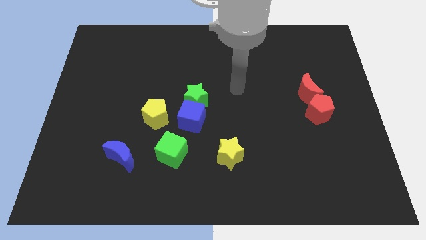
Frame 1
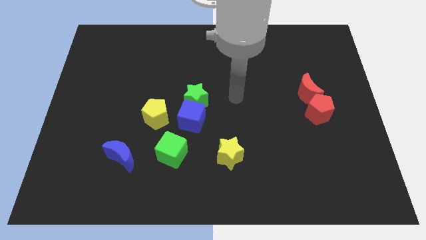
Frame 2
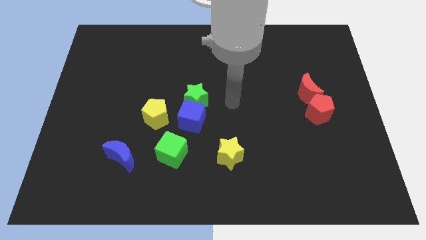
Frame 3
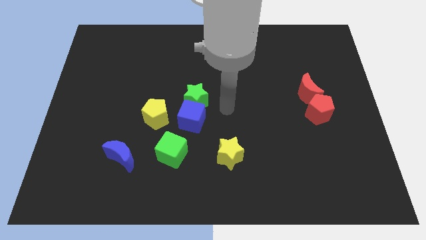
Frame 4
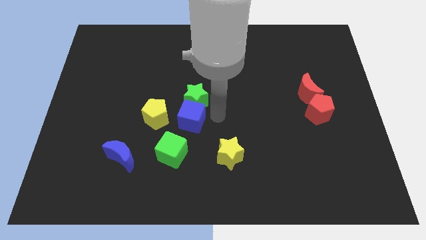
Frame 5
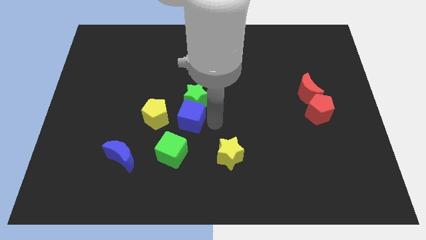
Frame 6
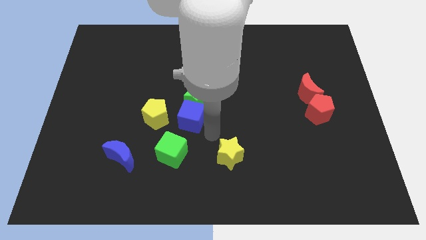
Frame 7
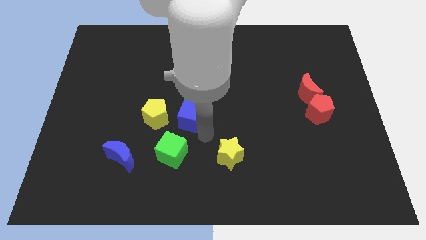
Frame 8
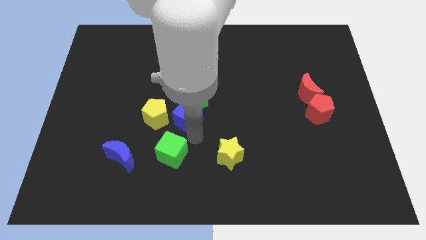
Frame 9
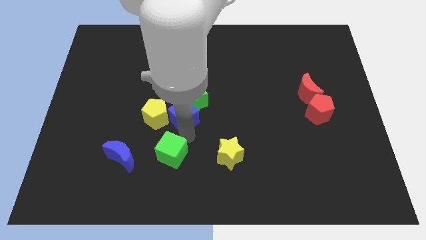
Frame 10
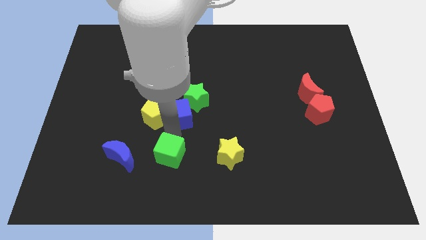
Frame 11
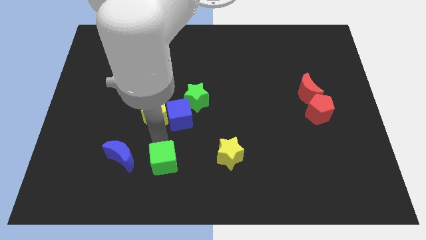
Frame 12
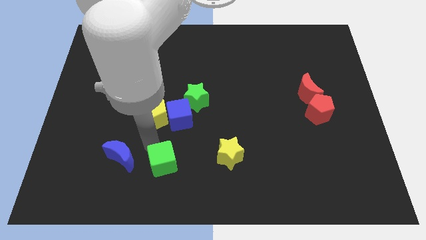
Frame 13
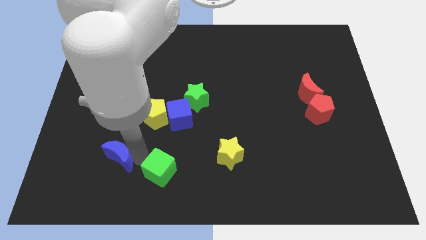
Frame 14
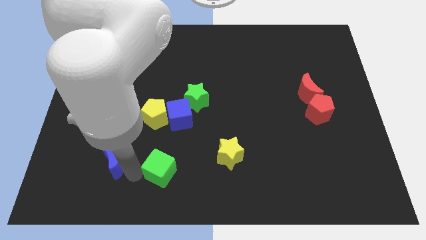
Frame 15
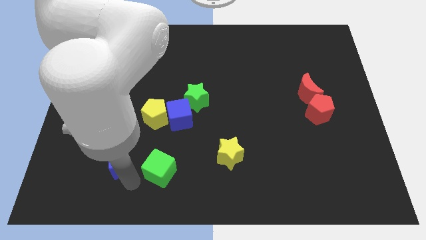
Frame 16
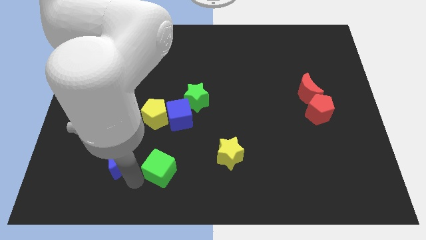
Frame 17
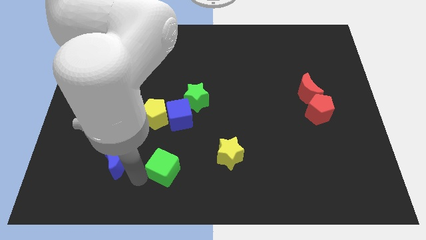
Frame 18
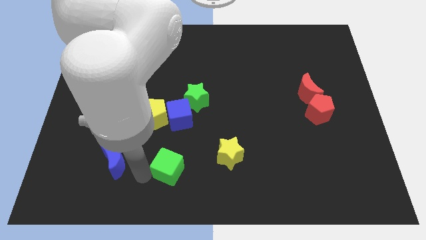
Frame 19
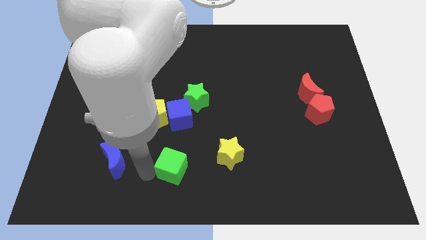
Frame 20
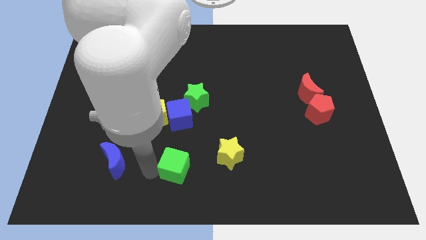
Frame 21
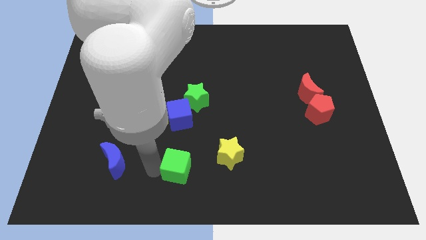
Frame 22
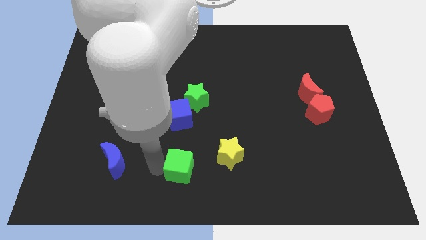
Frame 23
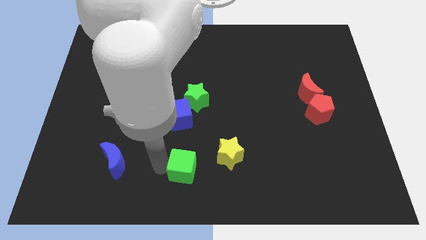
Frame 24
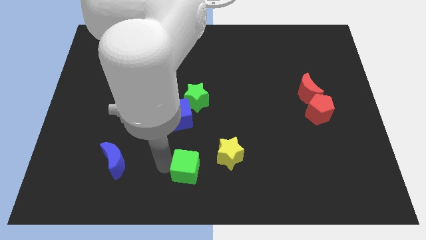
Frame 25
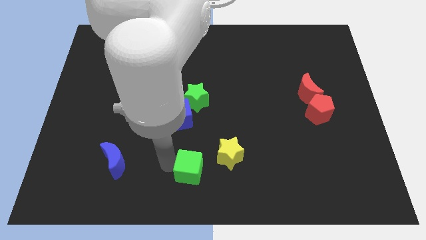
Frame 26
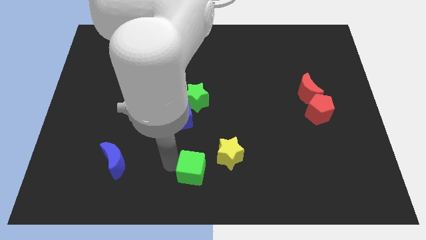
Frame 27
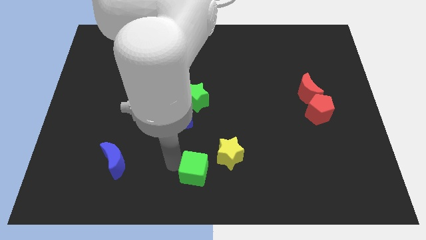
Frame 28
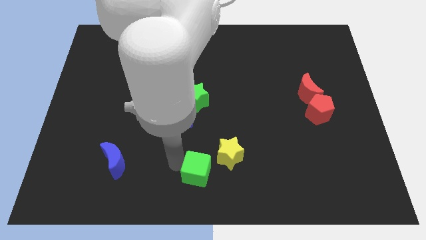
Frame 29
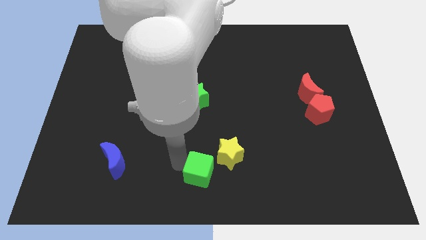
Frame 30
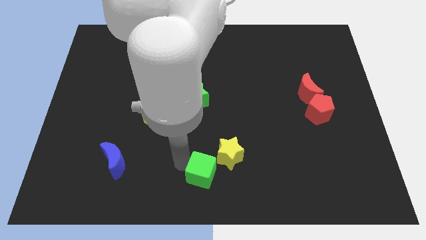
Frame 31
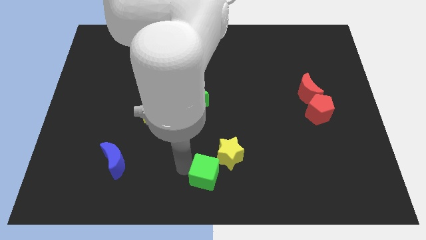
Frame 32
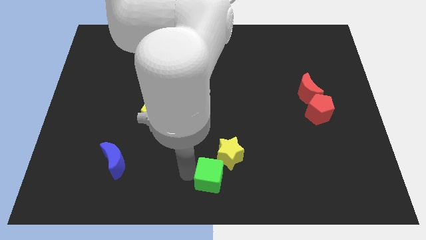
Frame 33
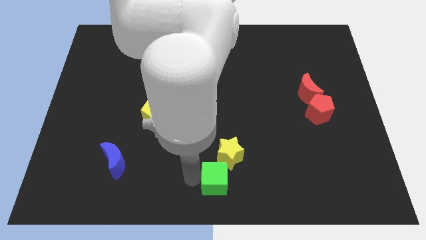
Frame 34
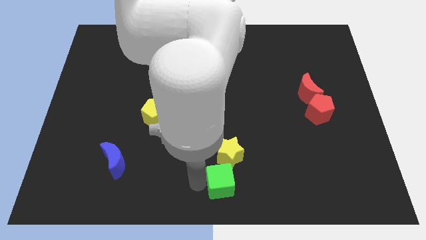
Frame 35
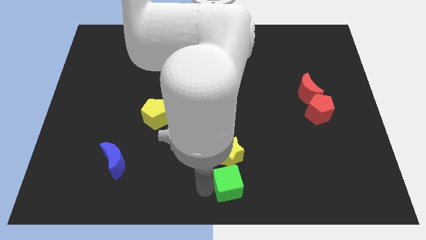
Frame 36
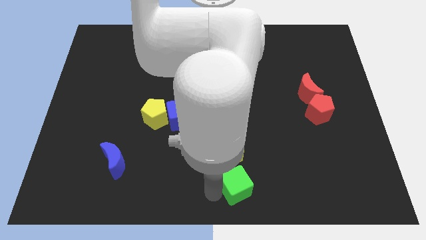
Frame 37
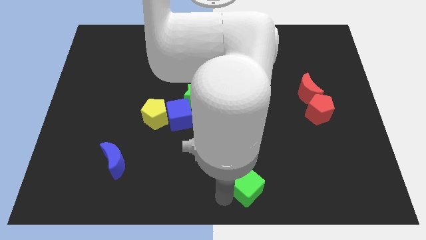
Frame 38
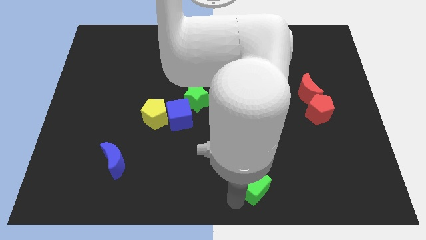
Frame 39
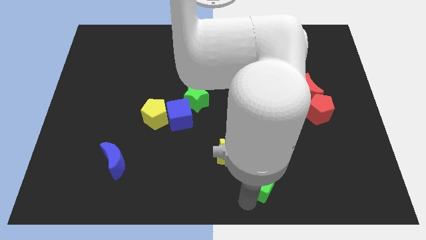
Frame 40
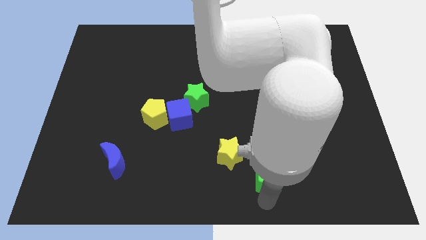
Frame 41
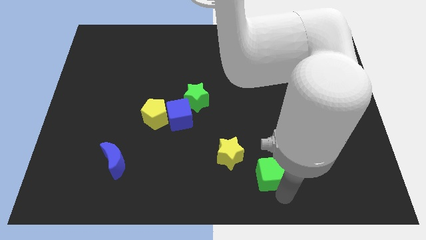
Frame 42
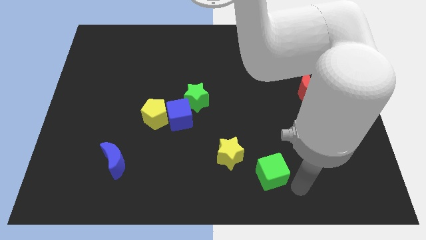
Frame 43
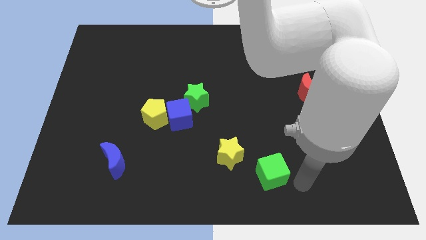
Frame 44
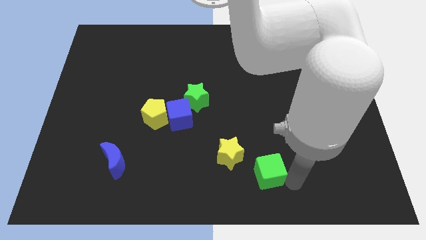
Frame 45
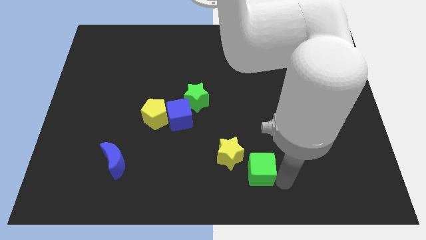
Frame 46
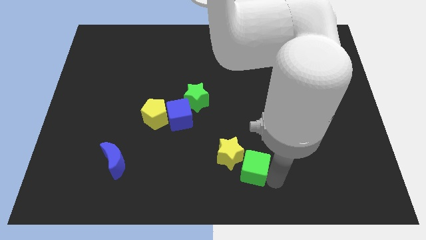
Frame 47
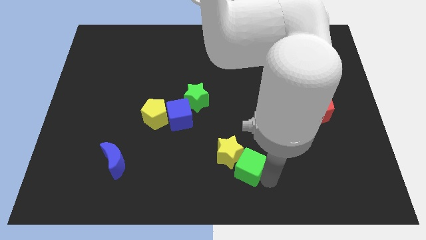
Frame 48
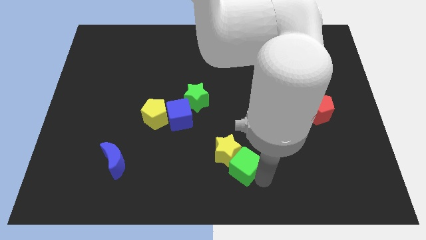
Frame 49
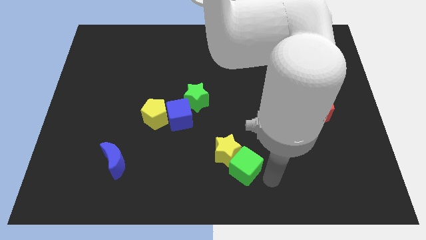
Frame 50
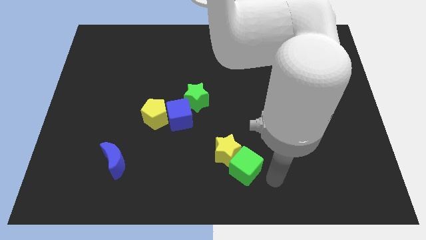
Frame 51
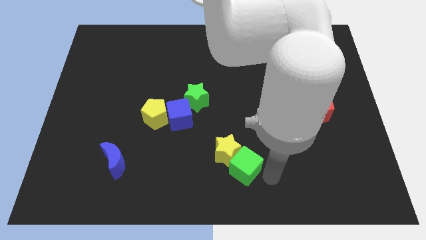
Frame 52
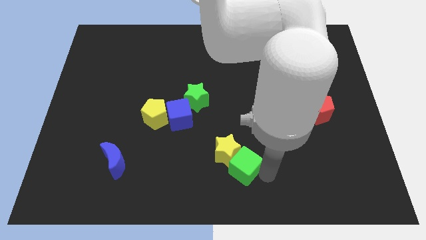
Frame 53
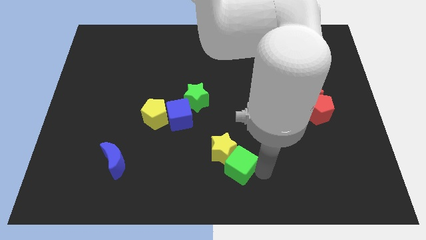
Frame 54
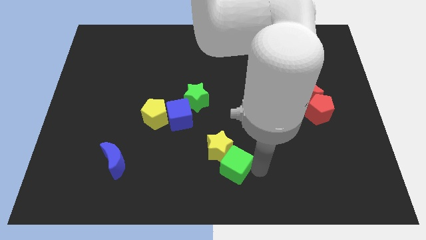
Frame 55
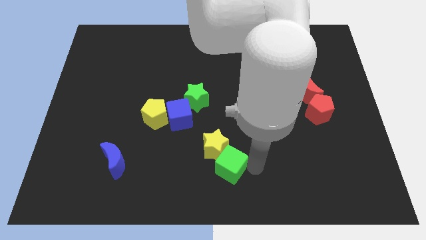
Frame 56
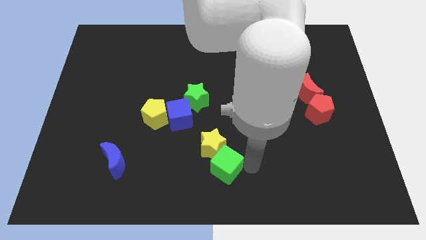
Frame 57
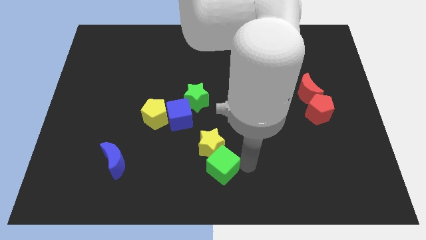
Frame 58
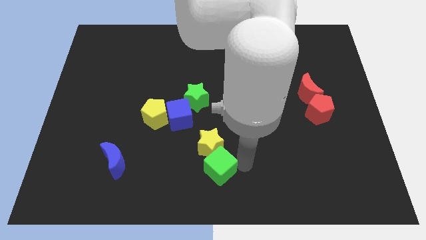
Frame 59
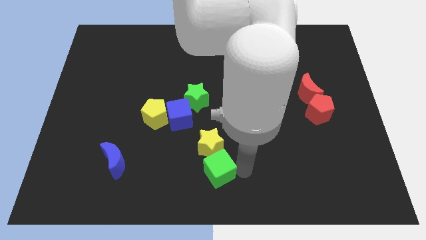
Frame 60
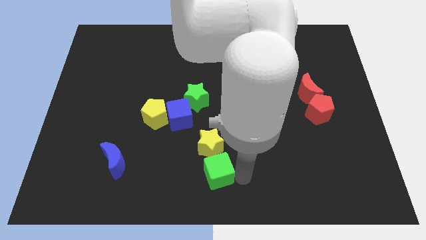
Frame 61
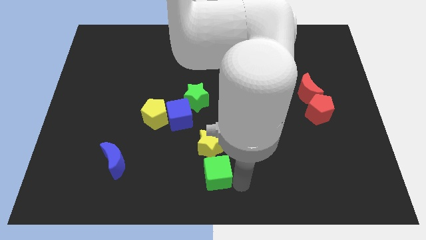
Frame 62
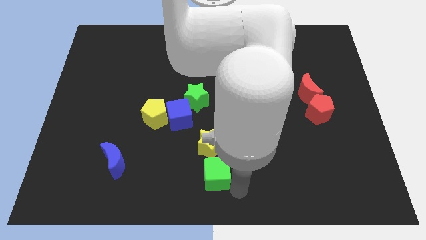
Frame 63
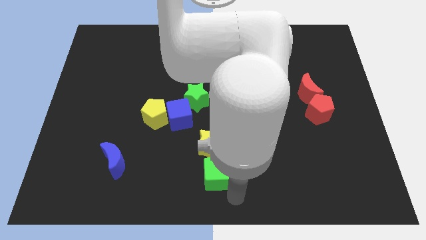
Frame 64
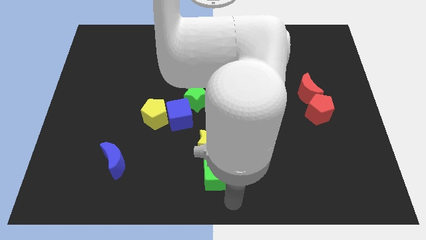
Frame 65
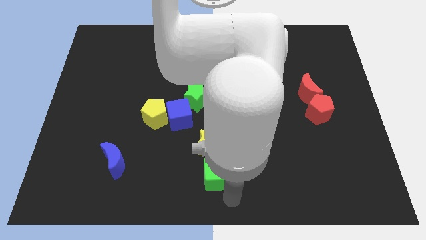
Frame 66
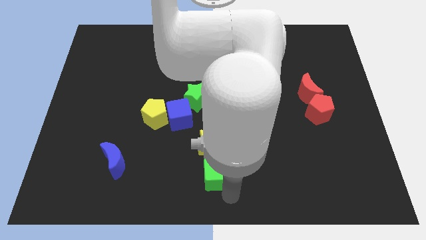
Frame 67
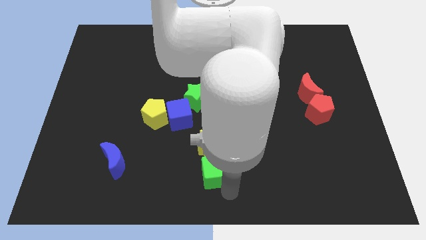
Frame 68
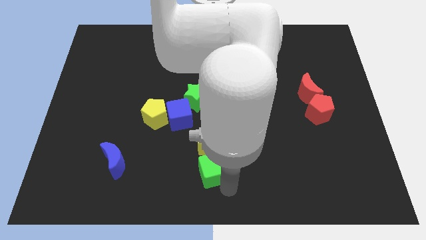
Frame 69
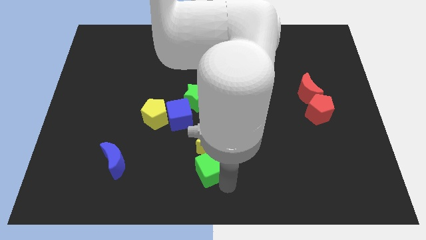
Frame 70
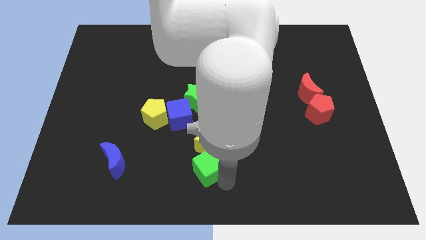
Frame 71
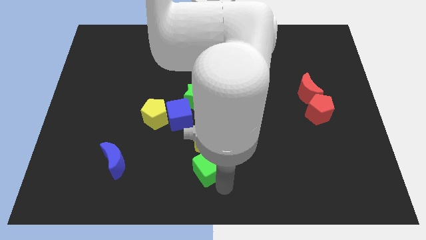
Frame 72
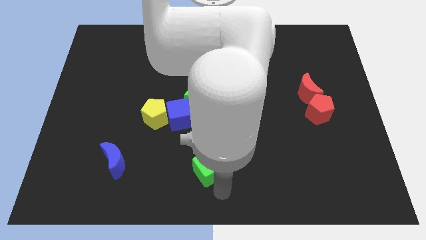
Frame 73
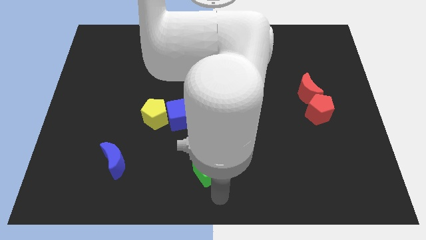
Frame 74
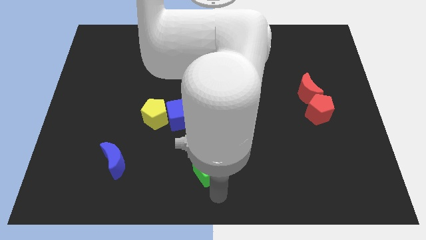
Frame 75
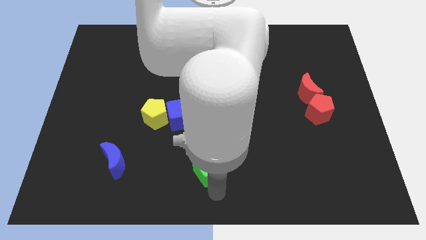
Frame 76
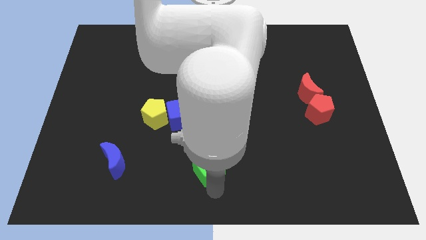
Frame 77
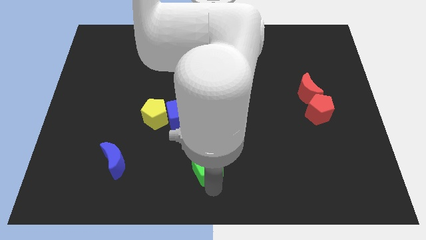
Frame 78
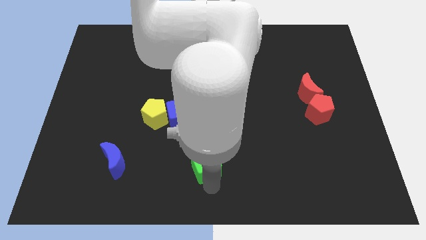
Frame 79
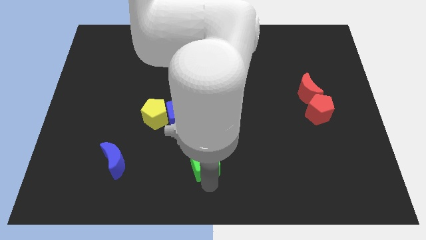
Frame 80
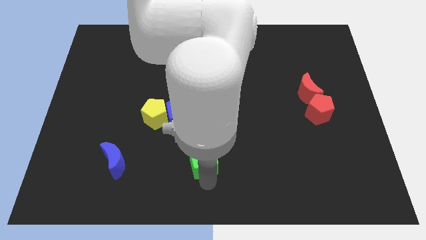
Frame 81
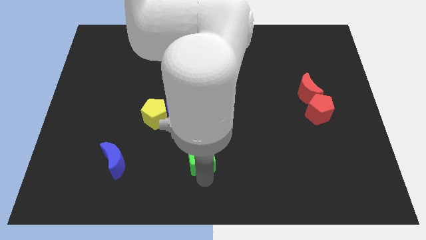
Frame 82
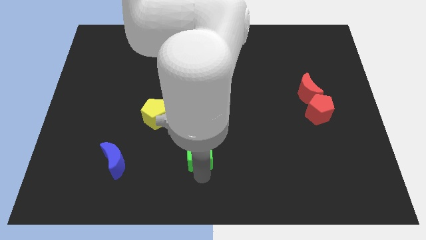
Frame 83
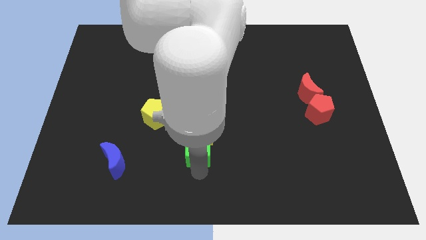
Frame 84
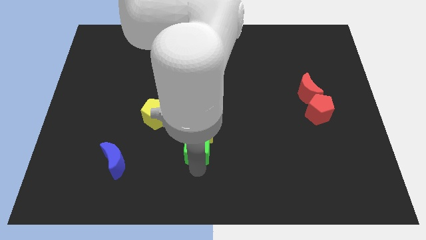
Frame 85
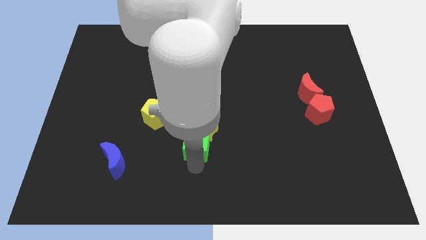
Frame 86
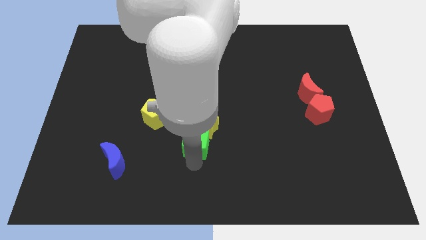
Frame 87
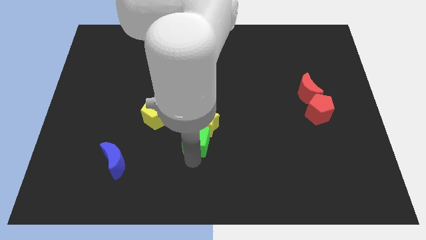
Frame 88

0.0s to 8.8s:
push the green cube to the center
